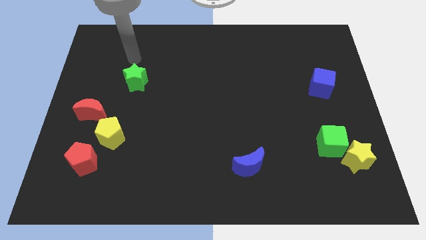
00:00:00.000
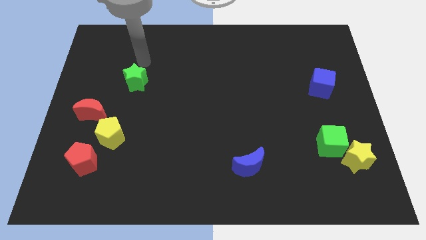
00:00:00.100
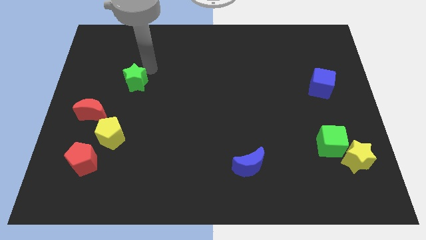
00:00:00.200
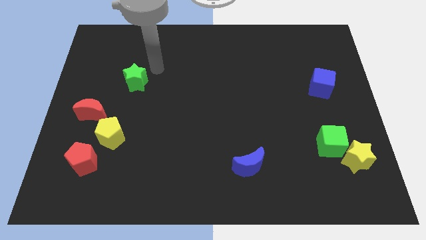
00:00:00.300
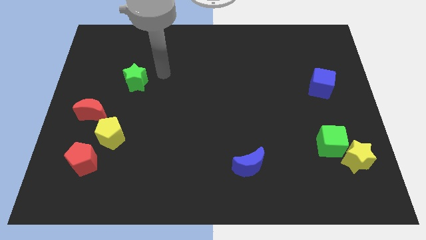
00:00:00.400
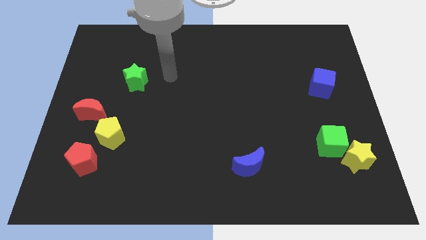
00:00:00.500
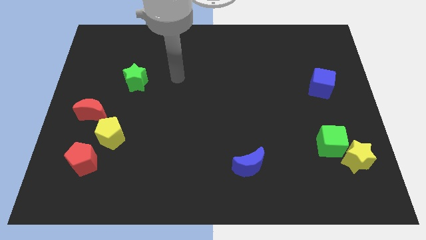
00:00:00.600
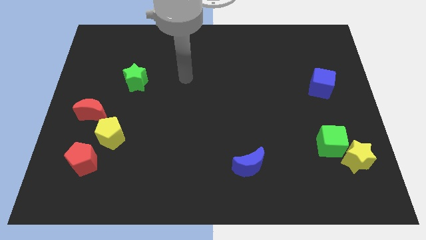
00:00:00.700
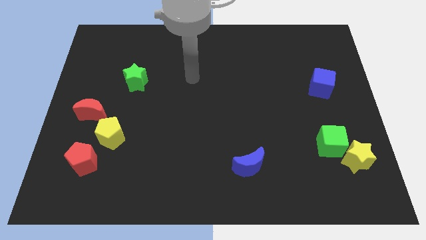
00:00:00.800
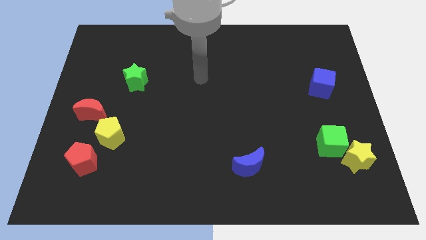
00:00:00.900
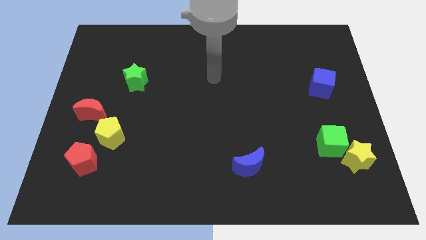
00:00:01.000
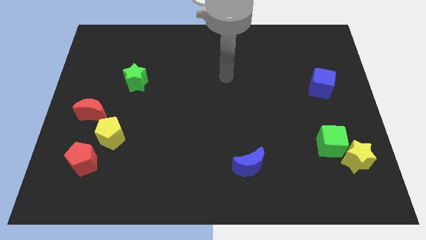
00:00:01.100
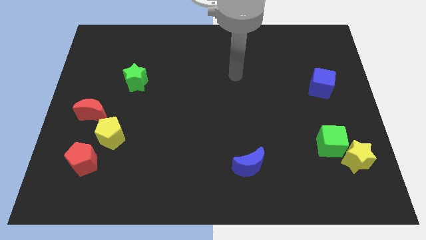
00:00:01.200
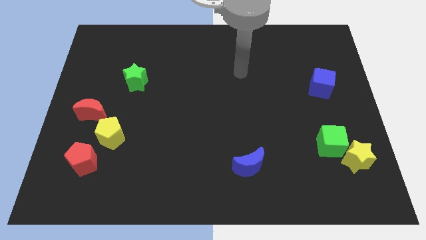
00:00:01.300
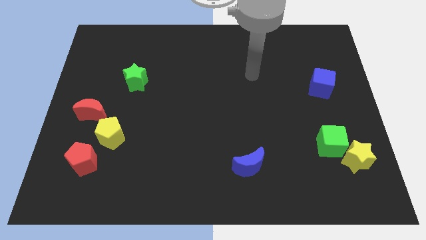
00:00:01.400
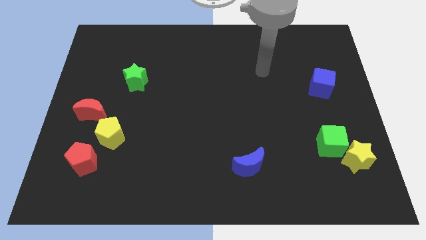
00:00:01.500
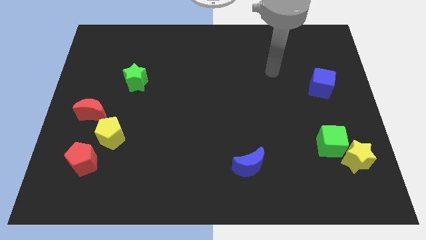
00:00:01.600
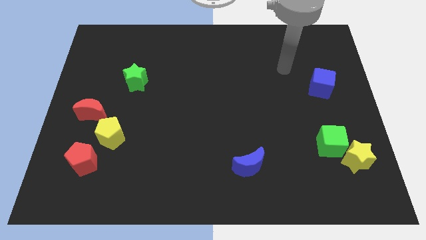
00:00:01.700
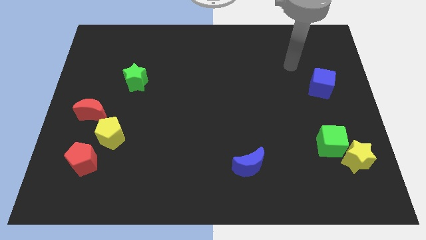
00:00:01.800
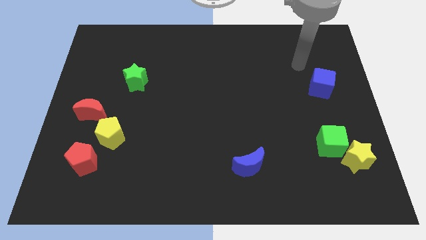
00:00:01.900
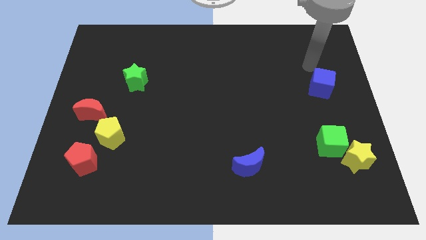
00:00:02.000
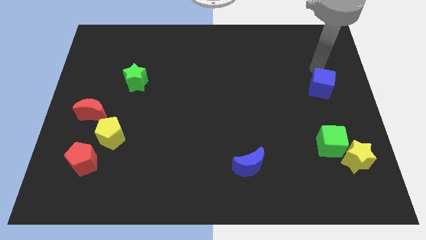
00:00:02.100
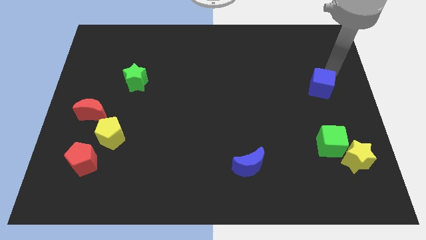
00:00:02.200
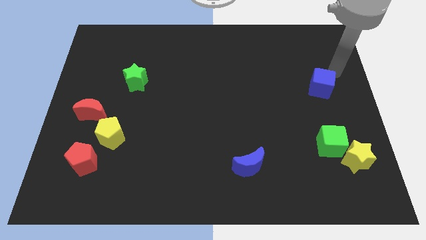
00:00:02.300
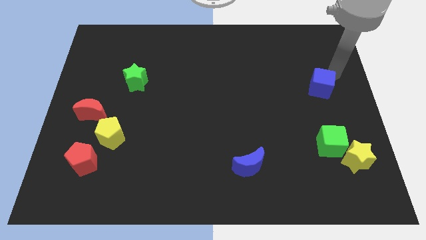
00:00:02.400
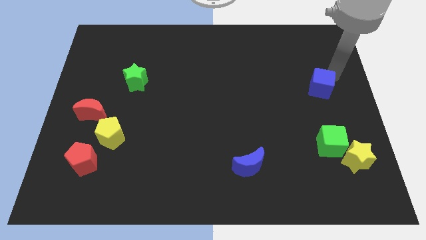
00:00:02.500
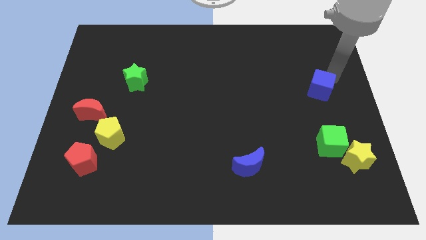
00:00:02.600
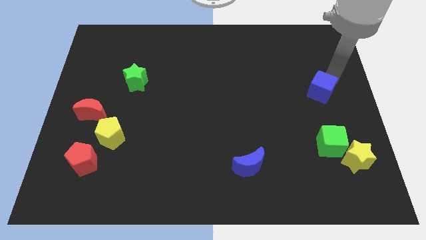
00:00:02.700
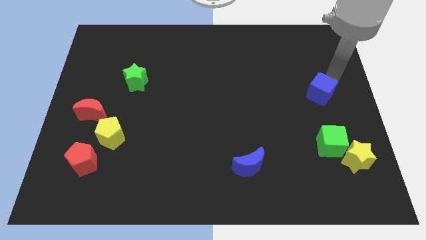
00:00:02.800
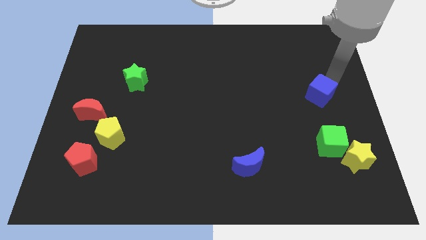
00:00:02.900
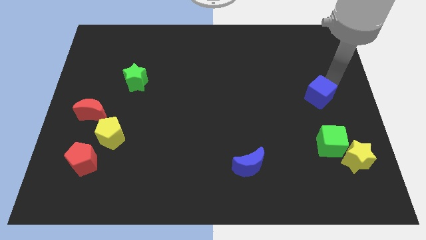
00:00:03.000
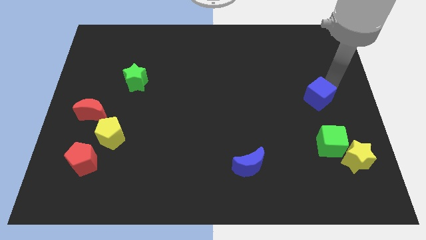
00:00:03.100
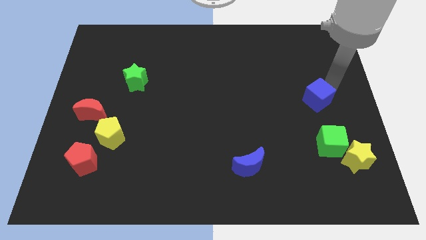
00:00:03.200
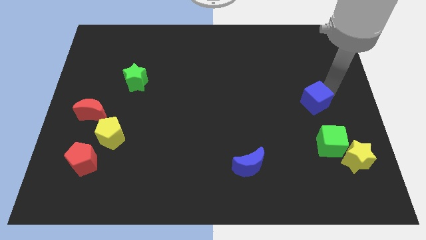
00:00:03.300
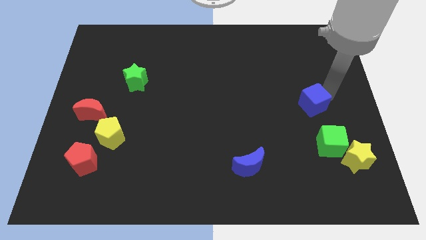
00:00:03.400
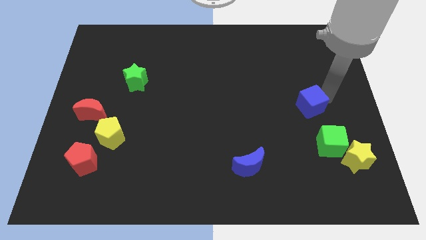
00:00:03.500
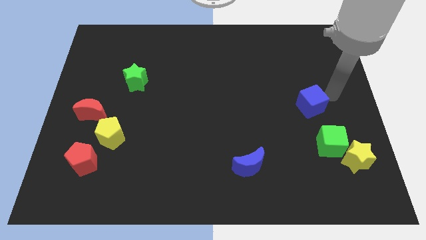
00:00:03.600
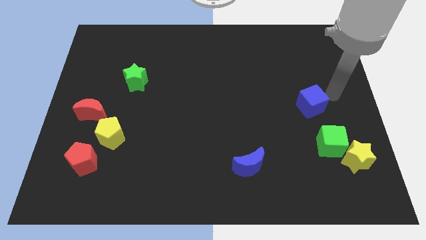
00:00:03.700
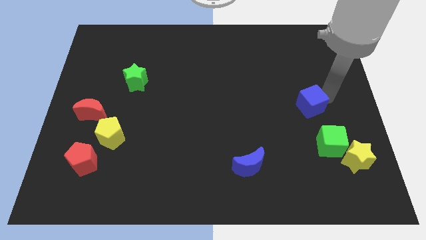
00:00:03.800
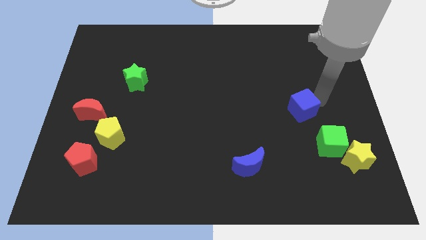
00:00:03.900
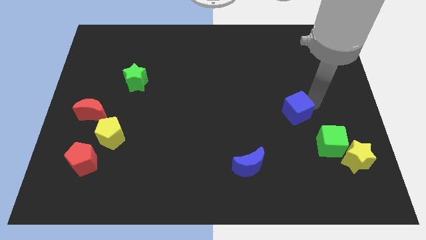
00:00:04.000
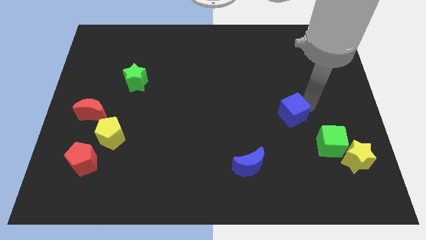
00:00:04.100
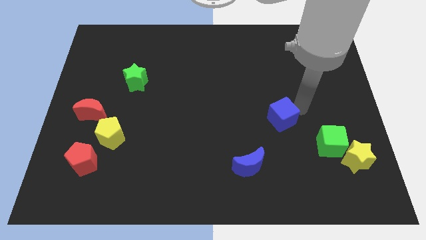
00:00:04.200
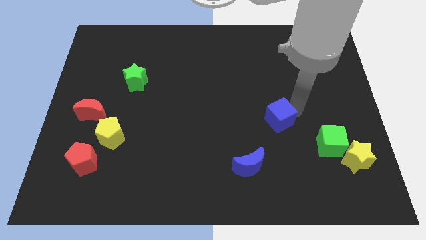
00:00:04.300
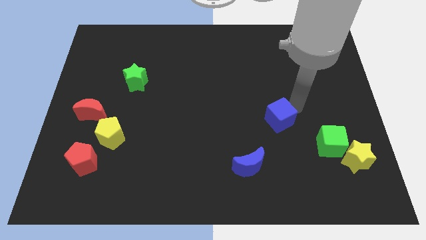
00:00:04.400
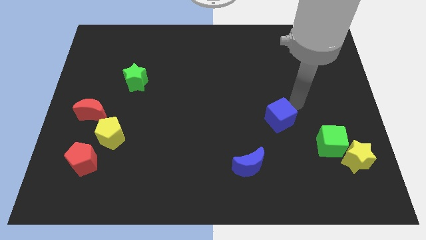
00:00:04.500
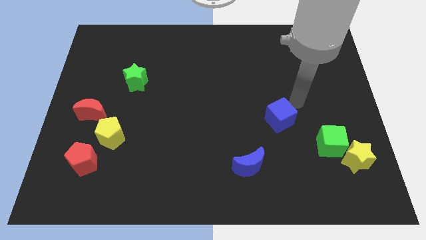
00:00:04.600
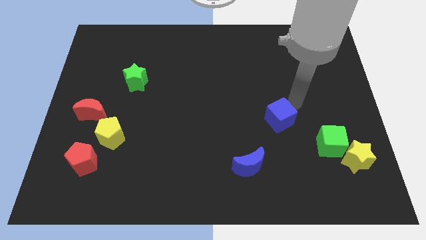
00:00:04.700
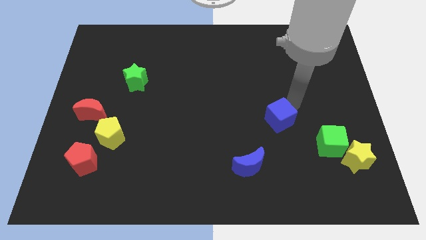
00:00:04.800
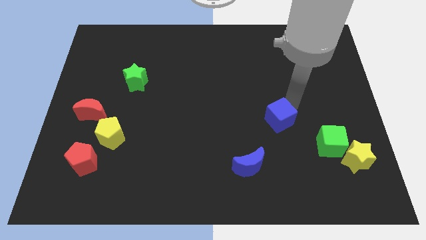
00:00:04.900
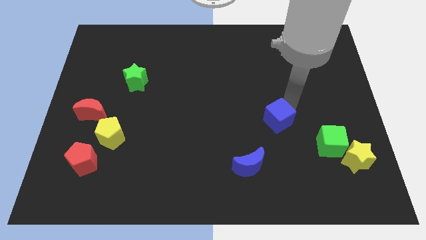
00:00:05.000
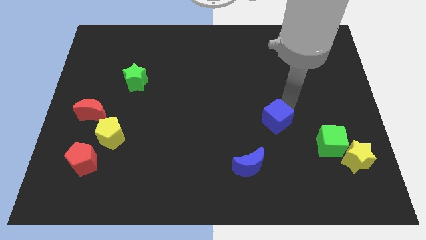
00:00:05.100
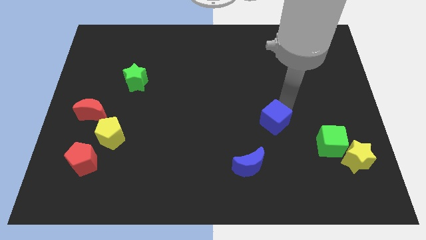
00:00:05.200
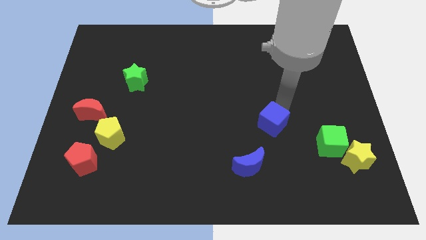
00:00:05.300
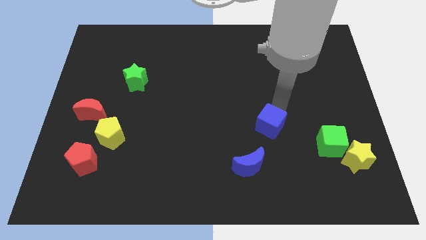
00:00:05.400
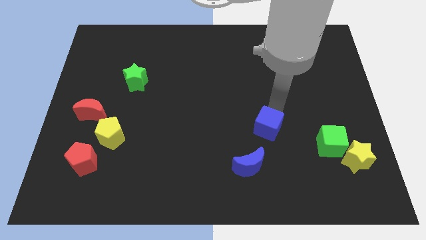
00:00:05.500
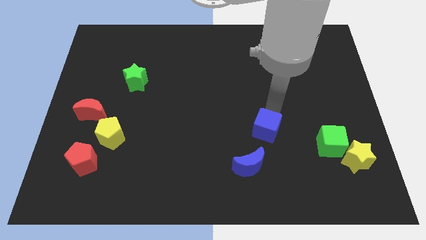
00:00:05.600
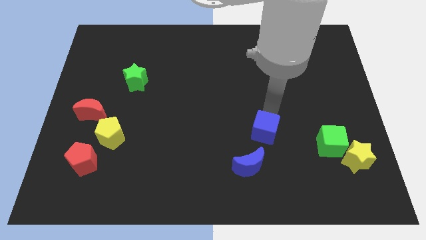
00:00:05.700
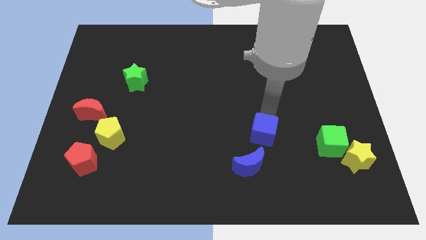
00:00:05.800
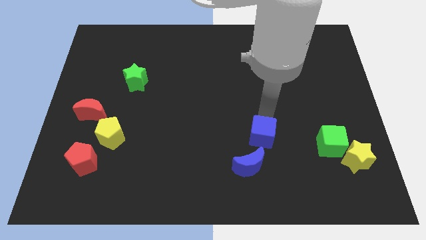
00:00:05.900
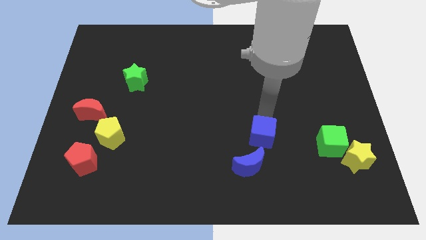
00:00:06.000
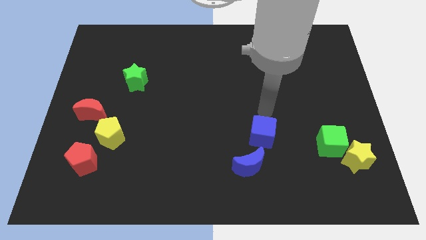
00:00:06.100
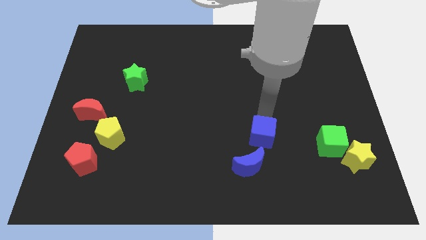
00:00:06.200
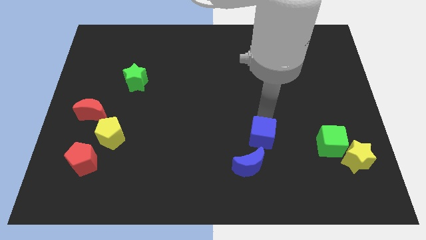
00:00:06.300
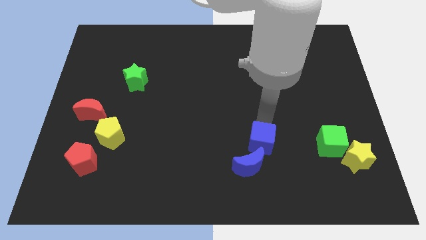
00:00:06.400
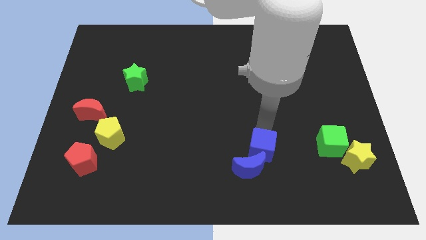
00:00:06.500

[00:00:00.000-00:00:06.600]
slide the blue cube next to the blue moon

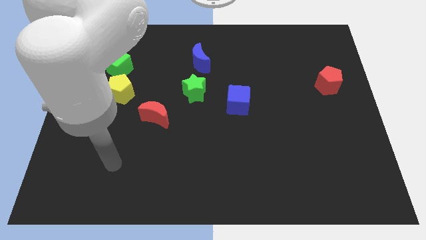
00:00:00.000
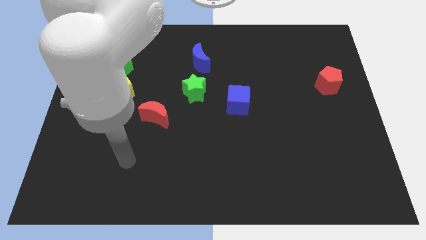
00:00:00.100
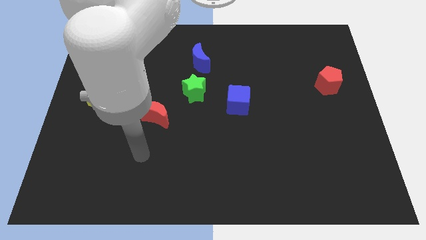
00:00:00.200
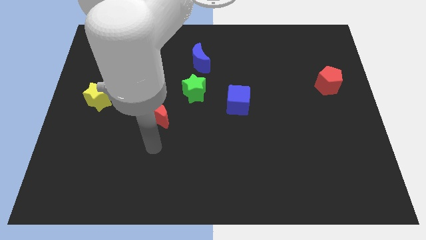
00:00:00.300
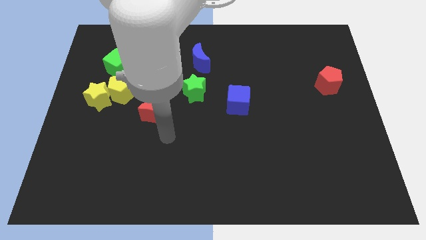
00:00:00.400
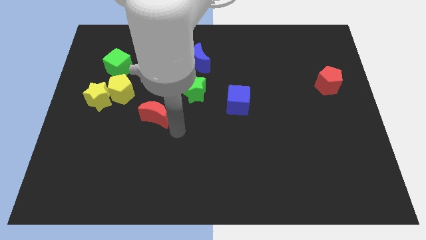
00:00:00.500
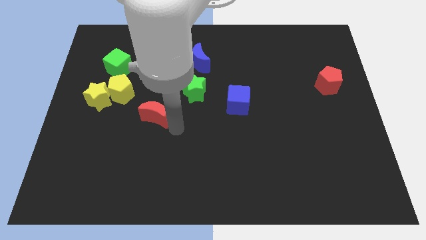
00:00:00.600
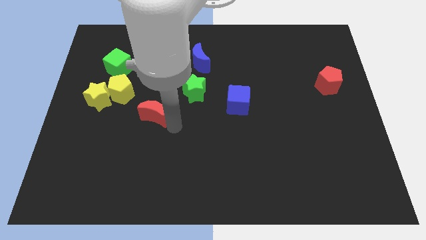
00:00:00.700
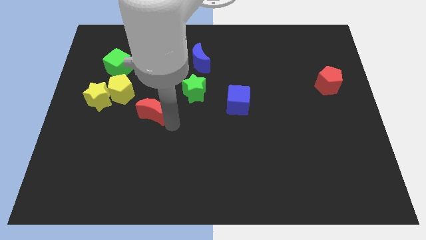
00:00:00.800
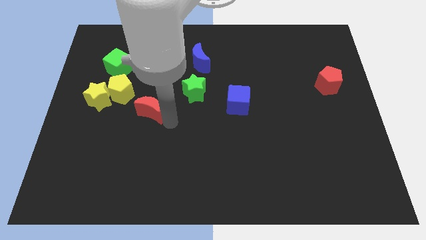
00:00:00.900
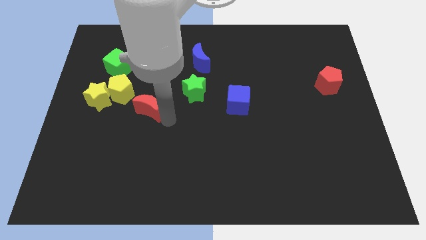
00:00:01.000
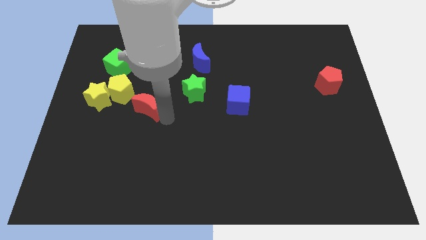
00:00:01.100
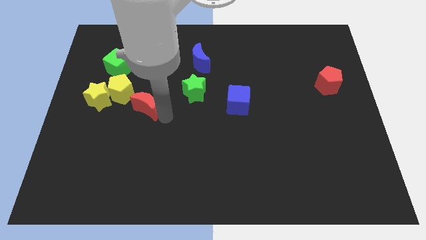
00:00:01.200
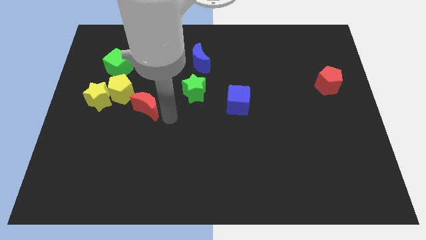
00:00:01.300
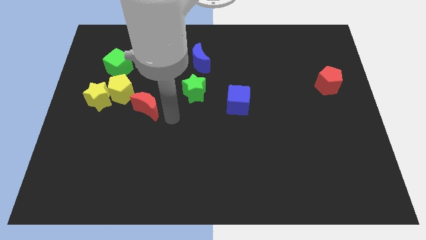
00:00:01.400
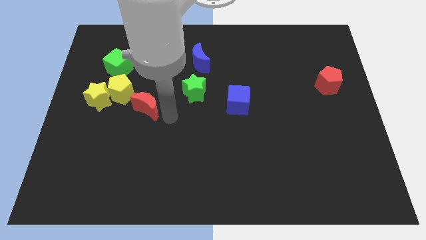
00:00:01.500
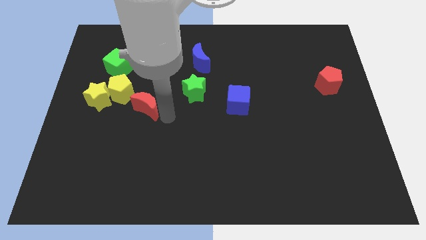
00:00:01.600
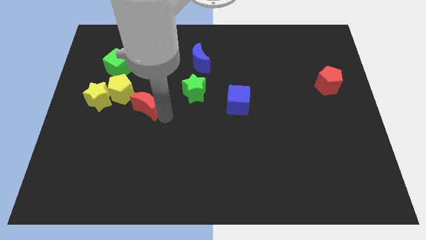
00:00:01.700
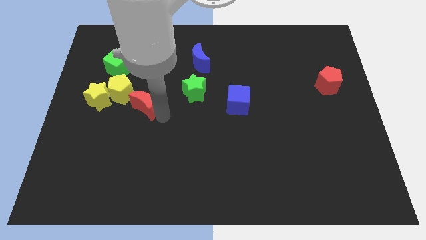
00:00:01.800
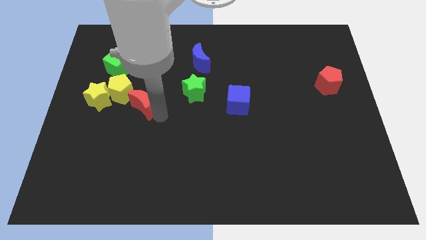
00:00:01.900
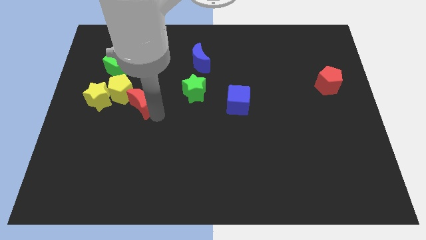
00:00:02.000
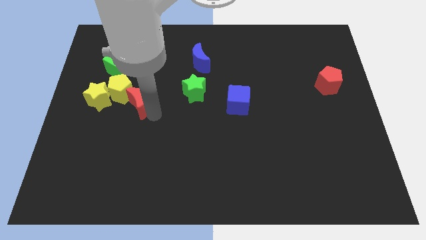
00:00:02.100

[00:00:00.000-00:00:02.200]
move the red moon next to the yellow pentagon
